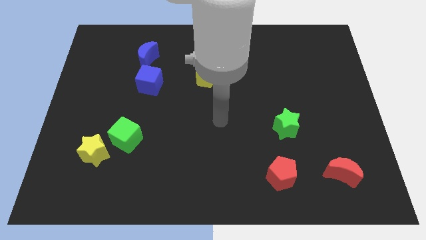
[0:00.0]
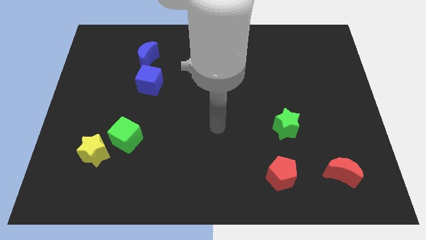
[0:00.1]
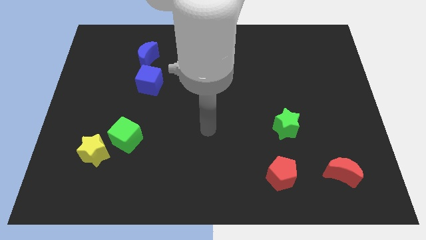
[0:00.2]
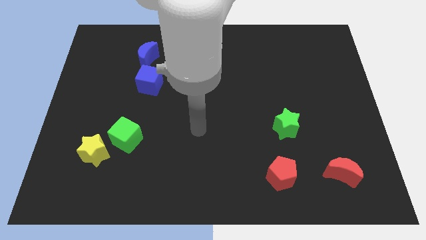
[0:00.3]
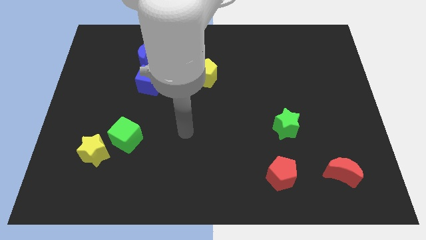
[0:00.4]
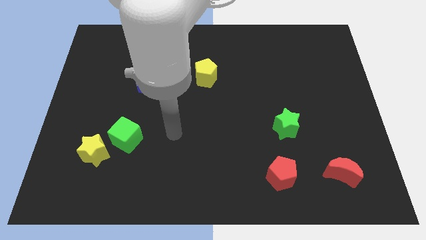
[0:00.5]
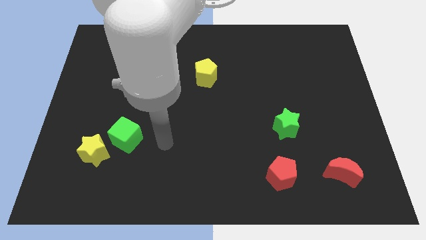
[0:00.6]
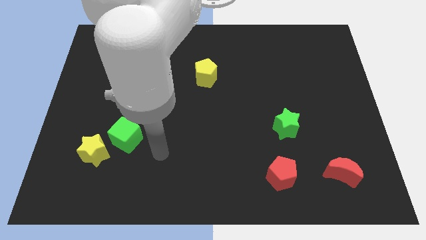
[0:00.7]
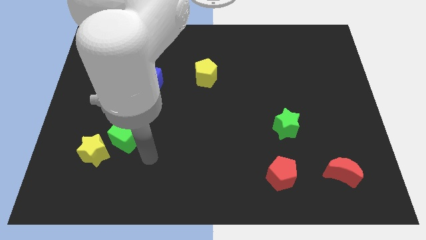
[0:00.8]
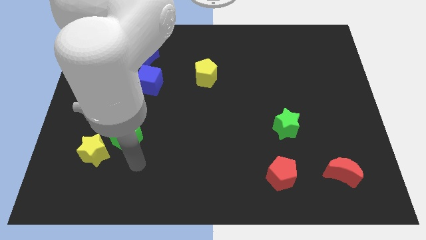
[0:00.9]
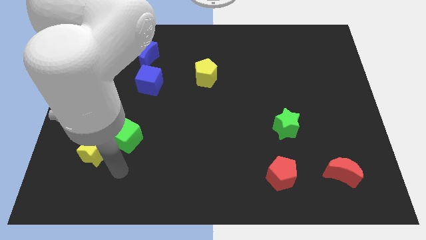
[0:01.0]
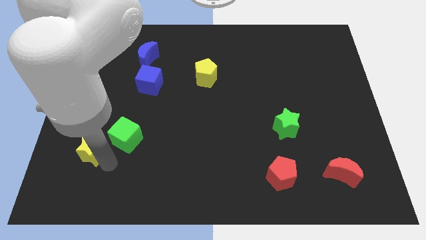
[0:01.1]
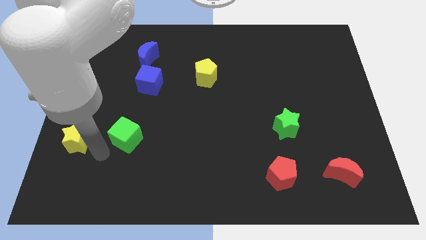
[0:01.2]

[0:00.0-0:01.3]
separate the green cube from the yellow star

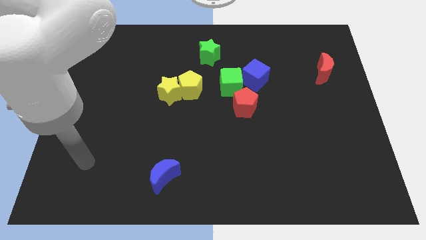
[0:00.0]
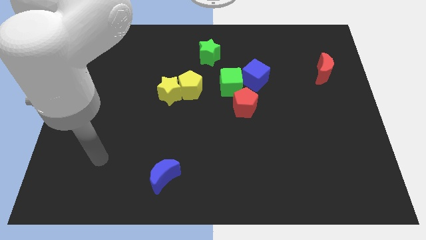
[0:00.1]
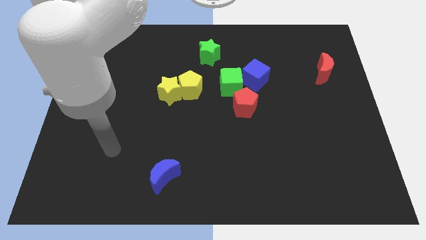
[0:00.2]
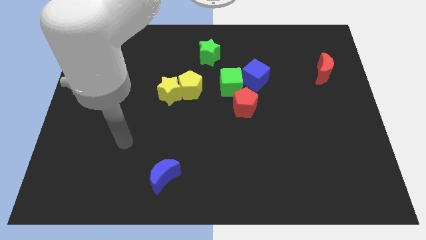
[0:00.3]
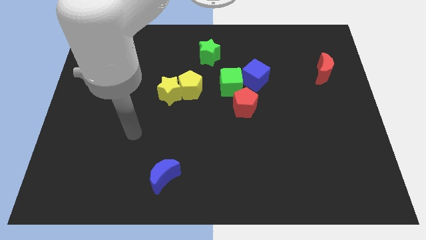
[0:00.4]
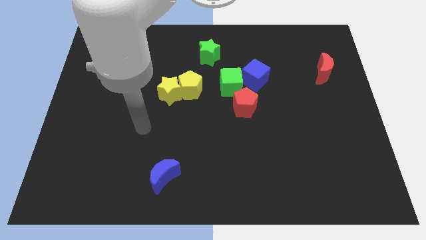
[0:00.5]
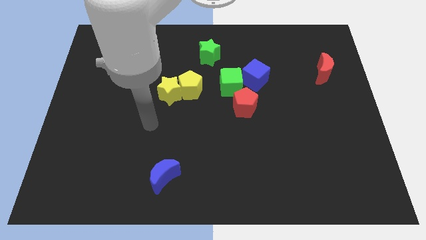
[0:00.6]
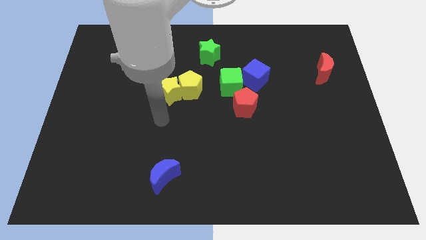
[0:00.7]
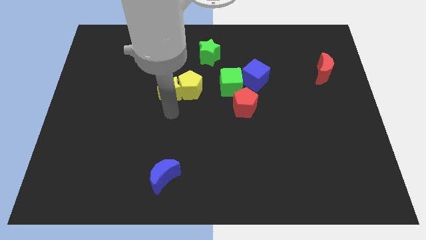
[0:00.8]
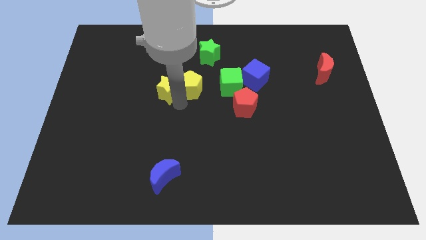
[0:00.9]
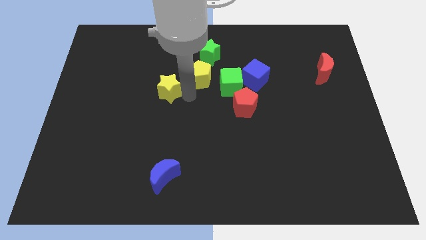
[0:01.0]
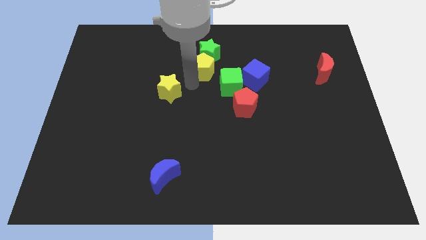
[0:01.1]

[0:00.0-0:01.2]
pull the yellow star apart from the yellow pentagon

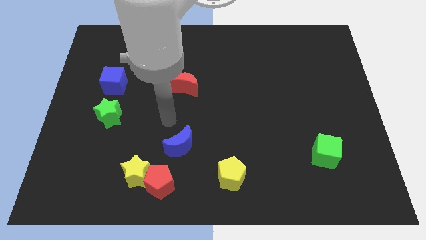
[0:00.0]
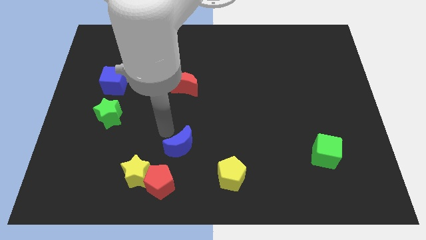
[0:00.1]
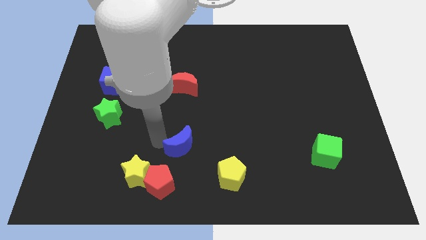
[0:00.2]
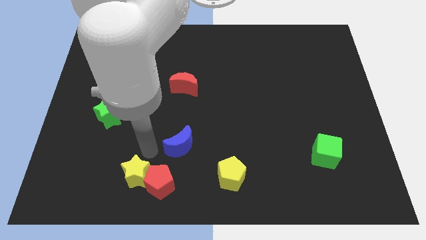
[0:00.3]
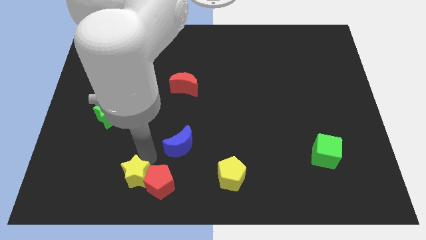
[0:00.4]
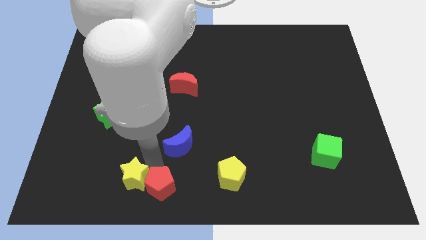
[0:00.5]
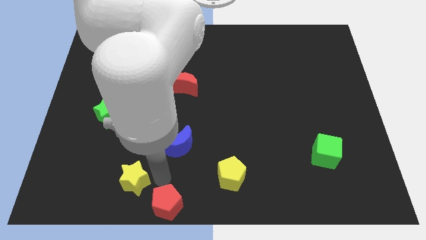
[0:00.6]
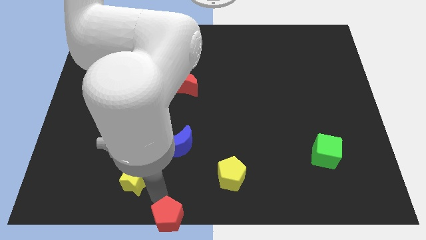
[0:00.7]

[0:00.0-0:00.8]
move the yellow star away from the red pentagon

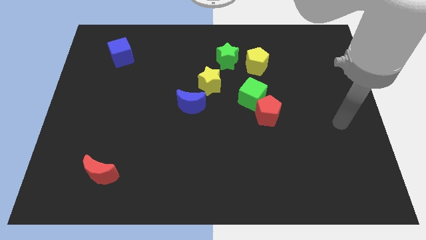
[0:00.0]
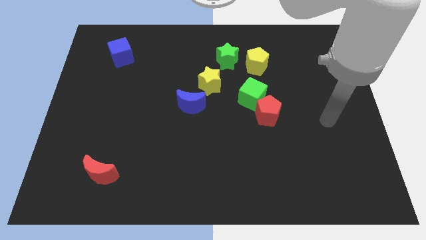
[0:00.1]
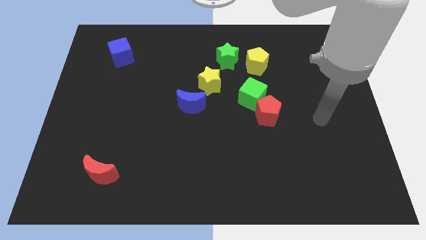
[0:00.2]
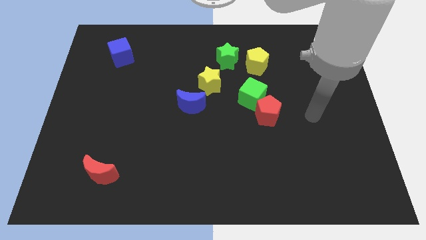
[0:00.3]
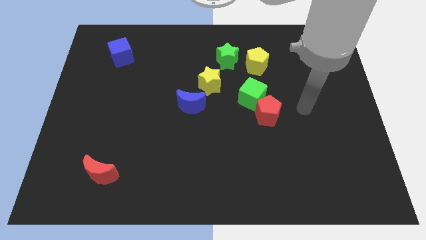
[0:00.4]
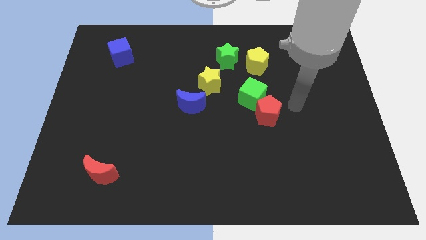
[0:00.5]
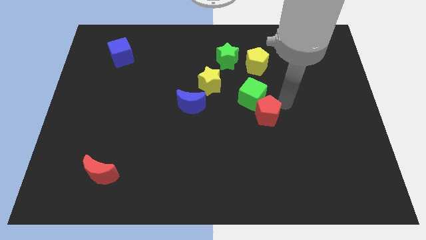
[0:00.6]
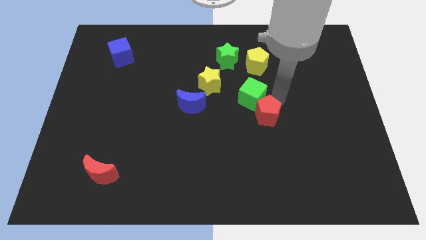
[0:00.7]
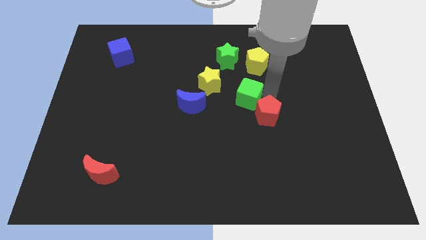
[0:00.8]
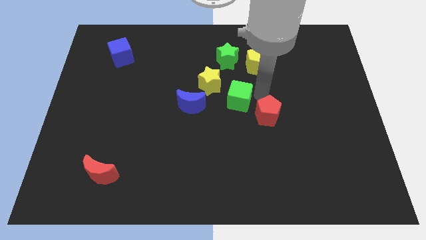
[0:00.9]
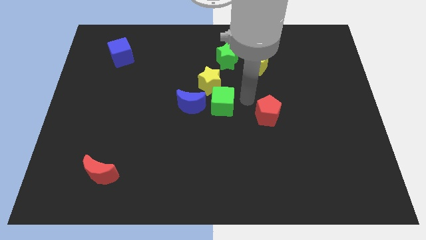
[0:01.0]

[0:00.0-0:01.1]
separate the red pentagon from the green cube

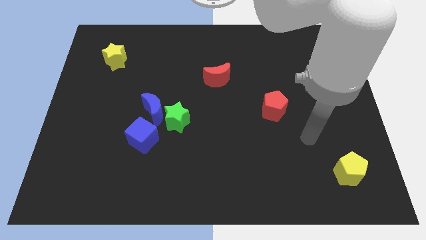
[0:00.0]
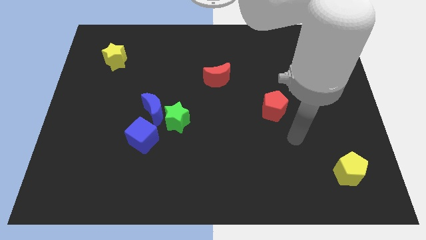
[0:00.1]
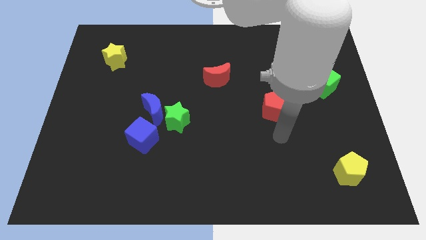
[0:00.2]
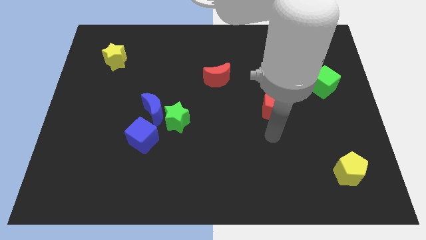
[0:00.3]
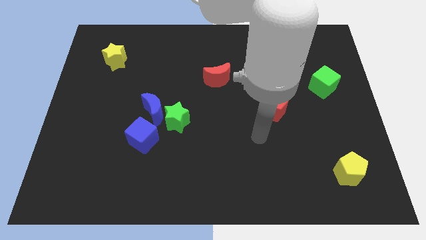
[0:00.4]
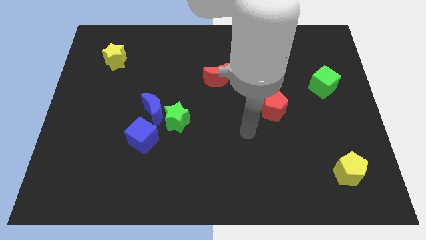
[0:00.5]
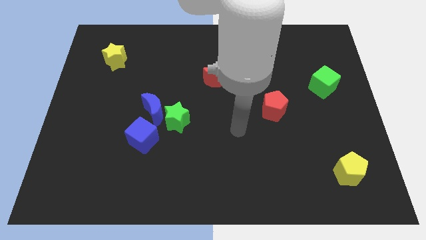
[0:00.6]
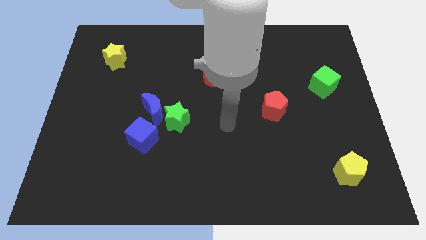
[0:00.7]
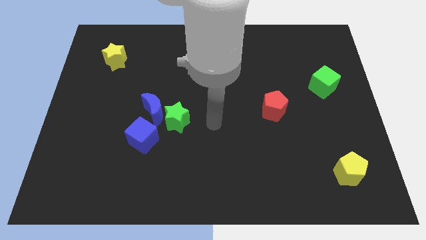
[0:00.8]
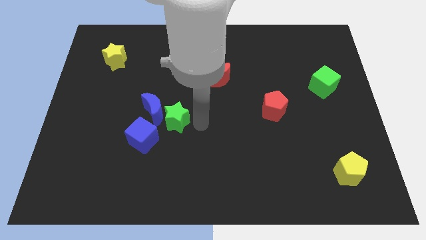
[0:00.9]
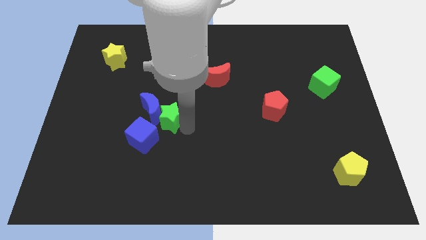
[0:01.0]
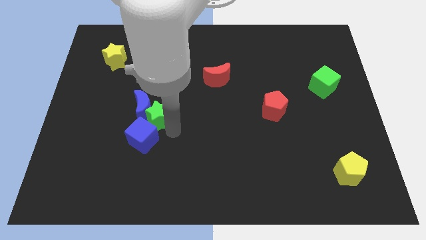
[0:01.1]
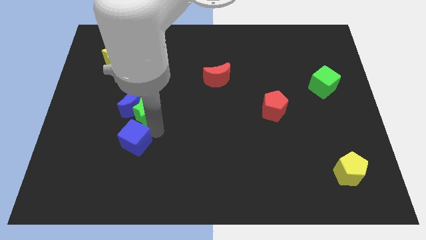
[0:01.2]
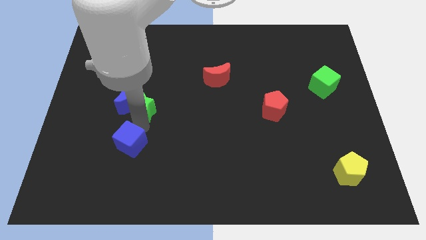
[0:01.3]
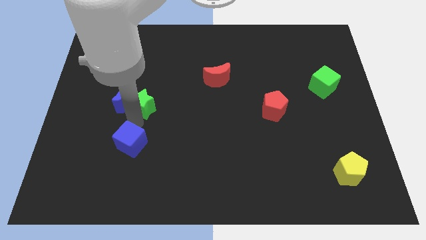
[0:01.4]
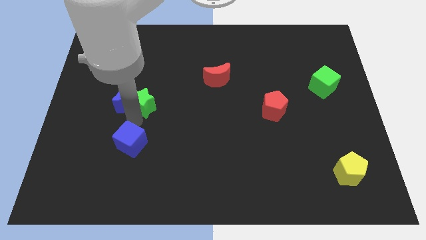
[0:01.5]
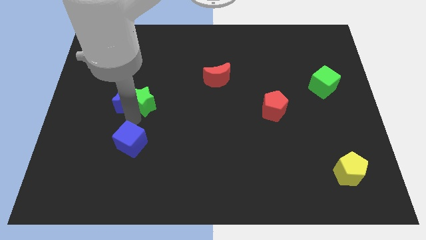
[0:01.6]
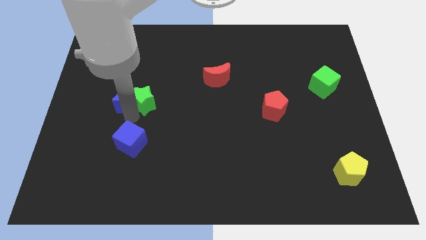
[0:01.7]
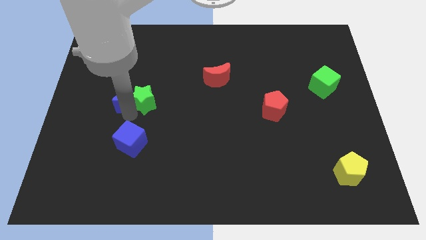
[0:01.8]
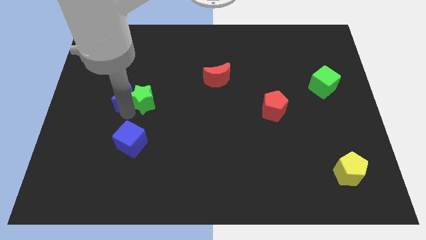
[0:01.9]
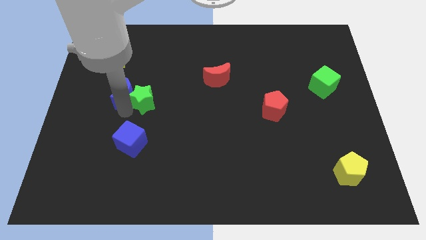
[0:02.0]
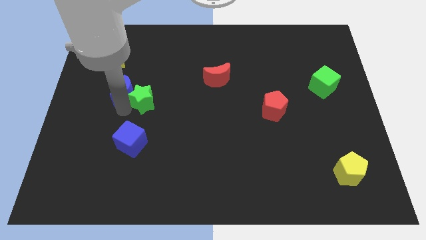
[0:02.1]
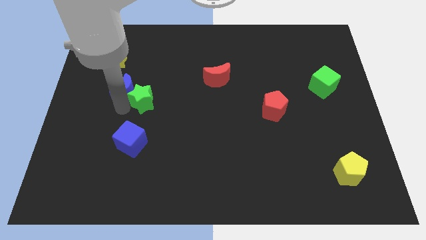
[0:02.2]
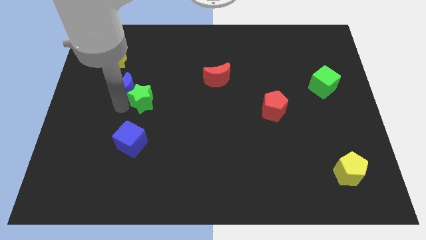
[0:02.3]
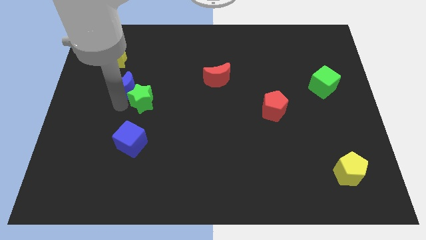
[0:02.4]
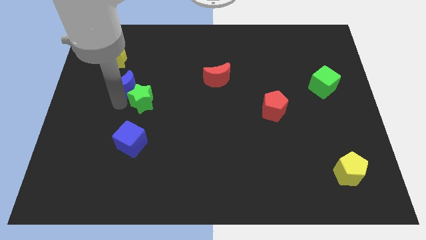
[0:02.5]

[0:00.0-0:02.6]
separate the blue moon from the green star and blue cube

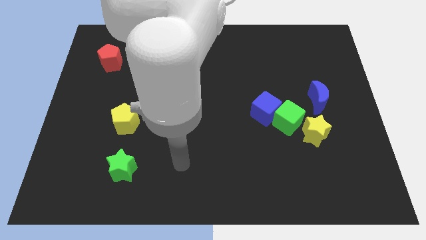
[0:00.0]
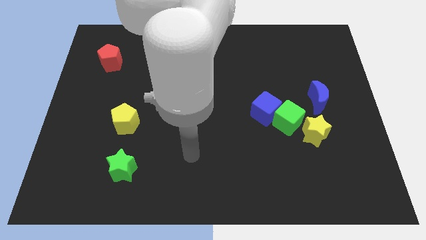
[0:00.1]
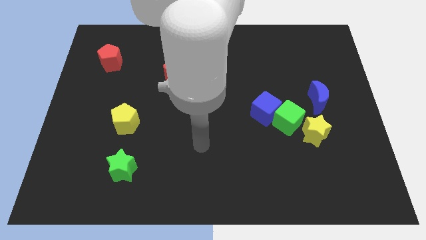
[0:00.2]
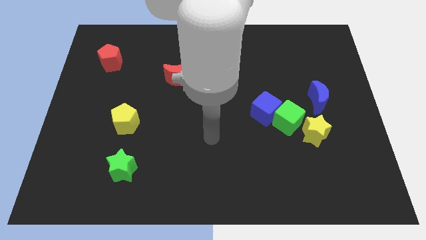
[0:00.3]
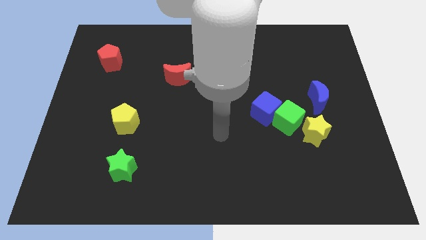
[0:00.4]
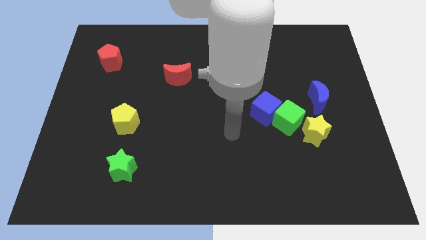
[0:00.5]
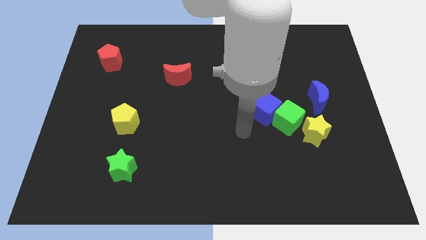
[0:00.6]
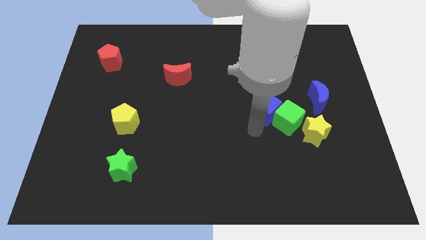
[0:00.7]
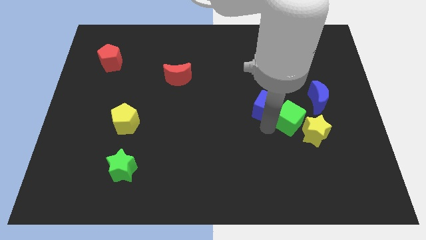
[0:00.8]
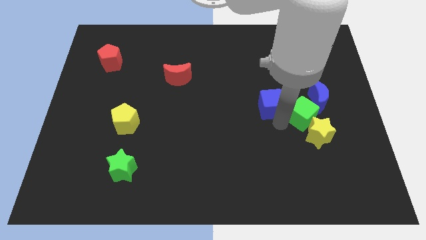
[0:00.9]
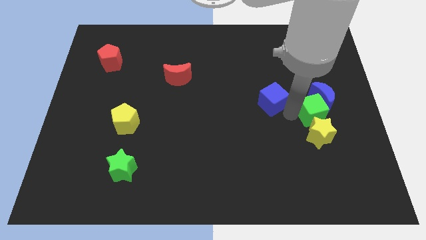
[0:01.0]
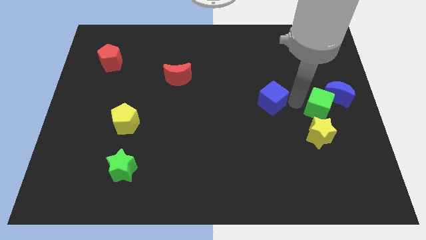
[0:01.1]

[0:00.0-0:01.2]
pull the blue cube apart from the green cube

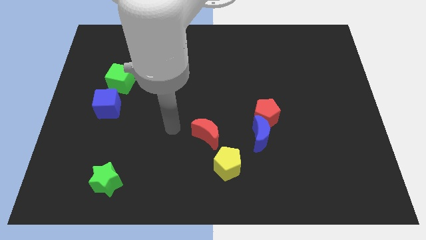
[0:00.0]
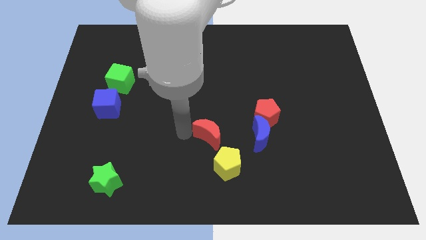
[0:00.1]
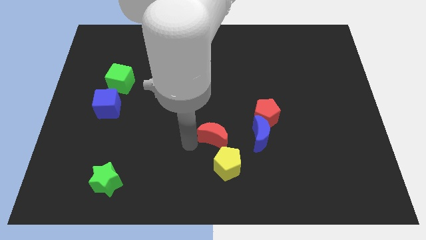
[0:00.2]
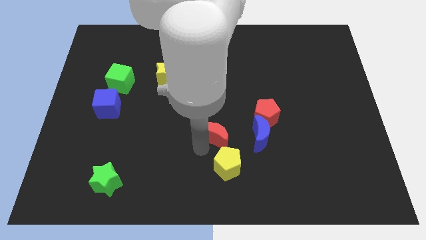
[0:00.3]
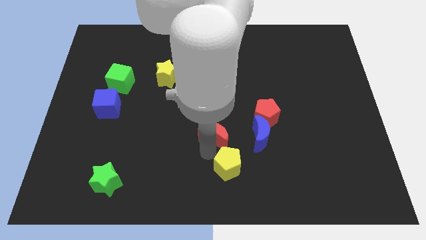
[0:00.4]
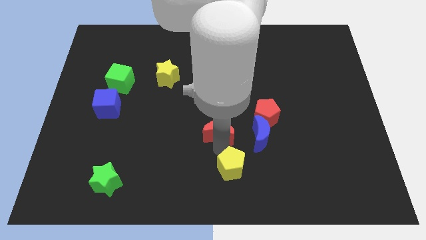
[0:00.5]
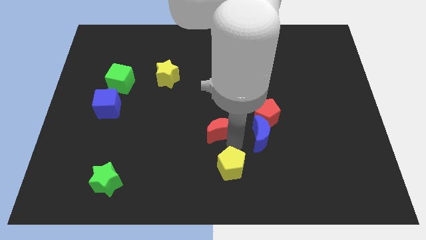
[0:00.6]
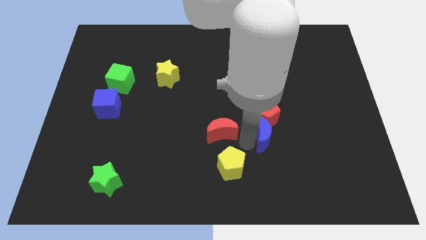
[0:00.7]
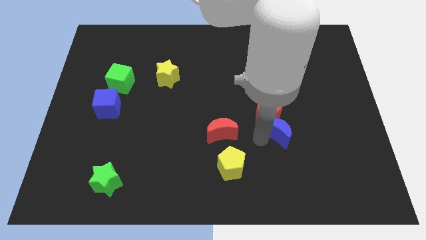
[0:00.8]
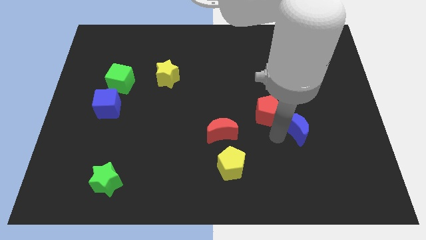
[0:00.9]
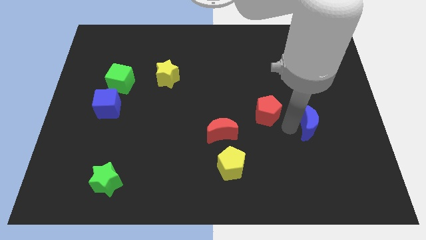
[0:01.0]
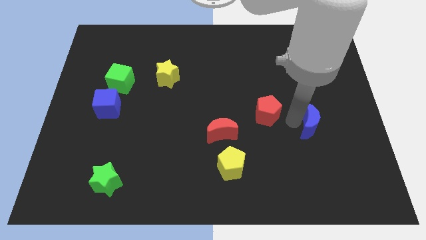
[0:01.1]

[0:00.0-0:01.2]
separate the red pentagon from the blue moon
